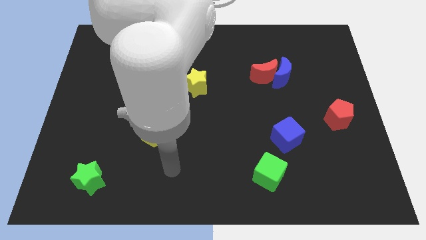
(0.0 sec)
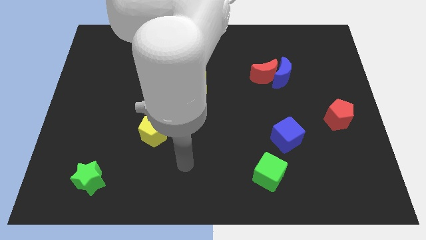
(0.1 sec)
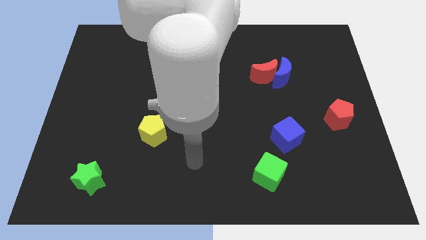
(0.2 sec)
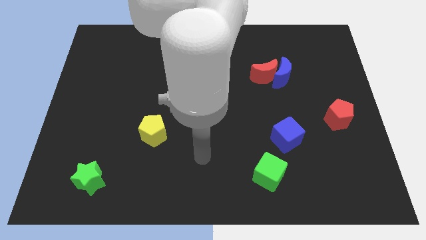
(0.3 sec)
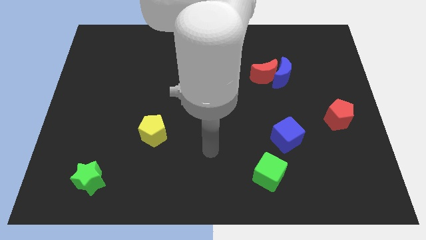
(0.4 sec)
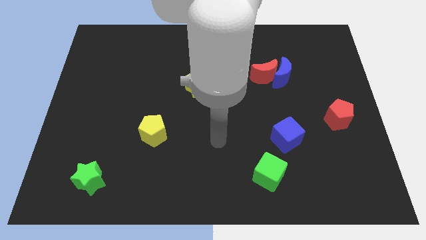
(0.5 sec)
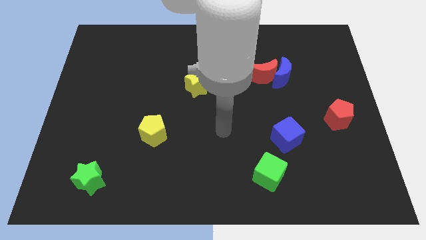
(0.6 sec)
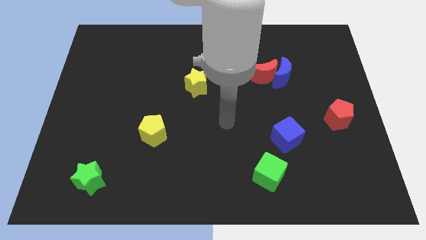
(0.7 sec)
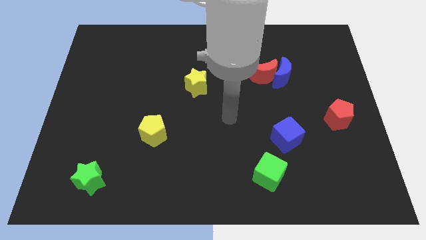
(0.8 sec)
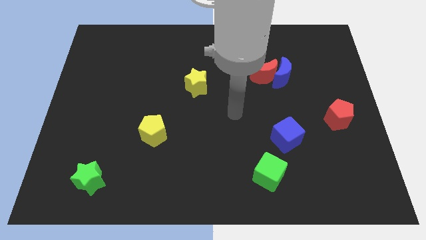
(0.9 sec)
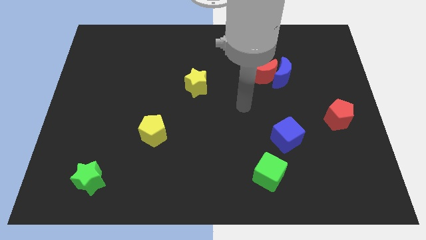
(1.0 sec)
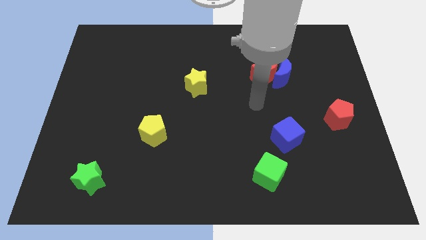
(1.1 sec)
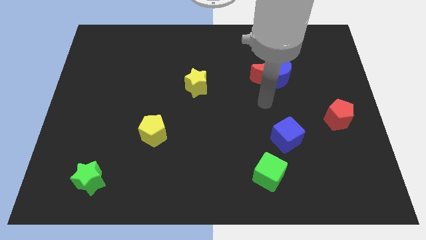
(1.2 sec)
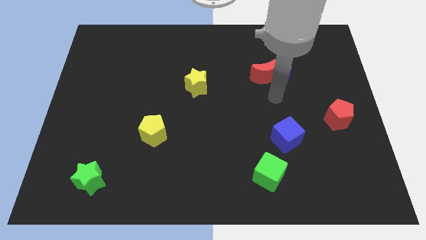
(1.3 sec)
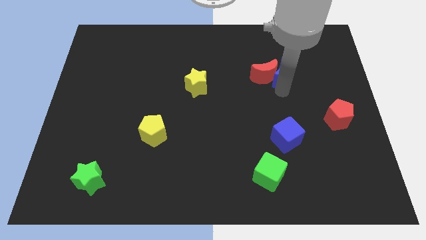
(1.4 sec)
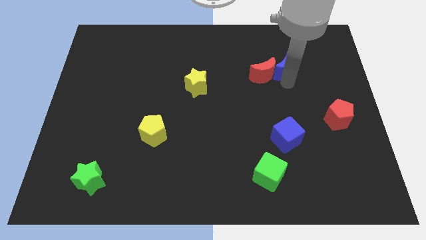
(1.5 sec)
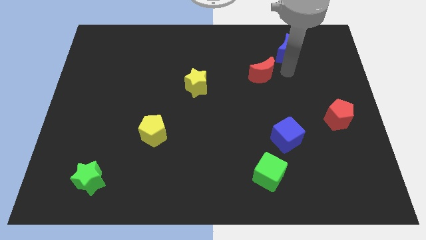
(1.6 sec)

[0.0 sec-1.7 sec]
pull the red moon apart from the blue moon

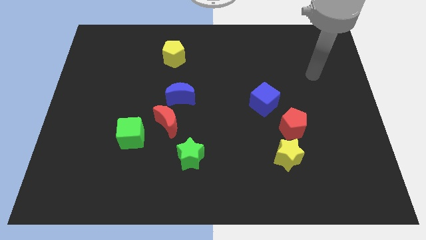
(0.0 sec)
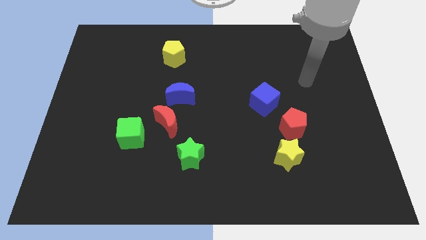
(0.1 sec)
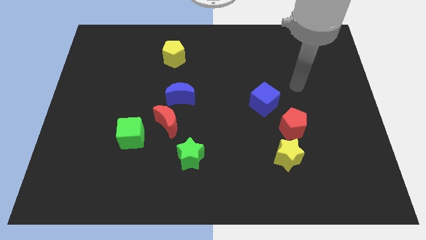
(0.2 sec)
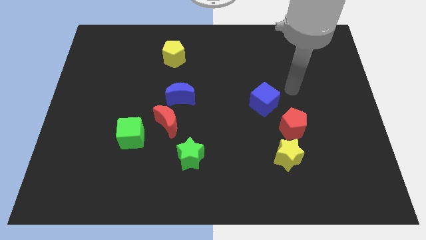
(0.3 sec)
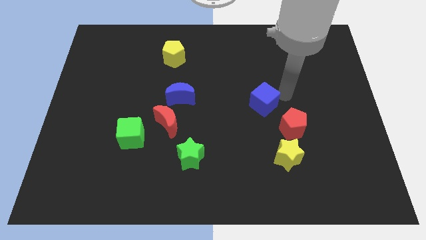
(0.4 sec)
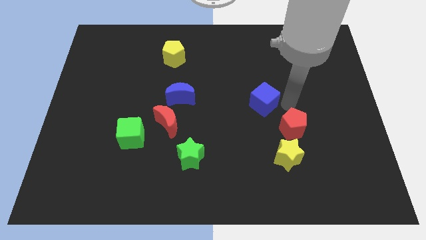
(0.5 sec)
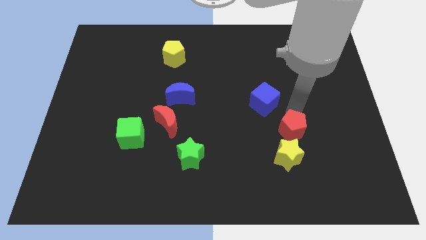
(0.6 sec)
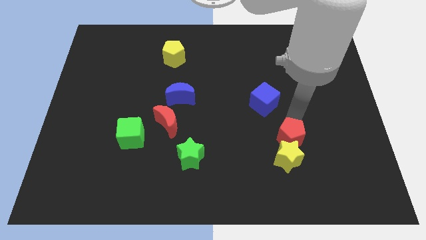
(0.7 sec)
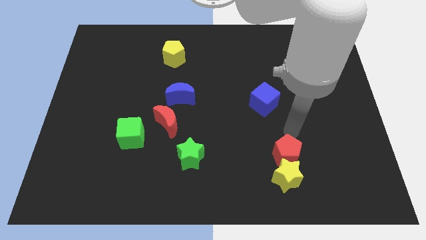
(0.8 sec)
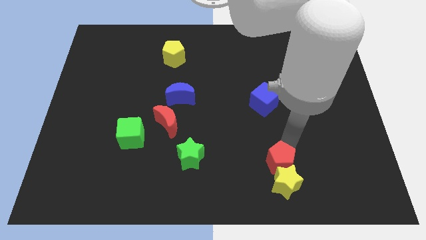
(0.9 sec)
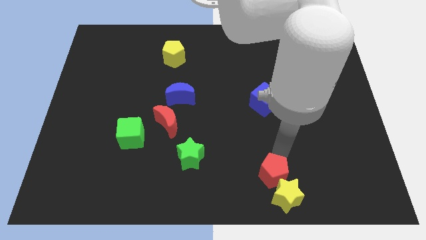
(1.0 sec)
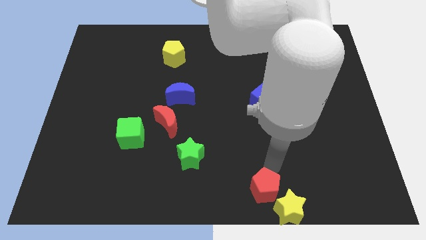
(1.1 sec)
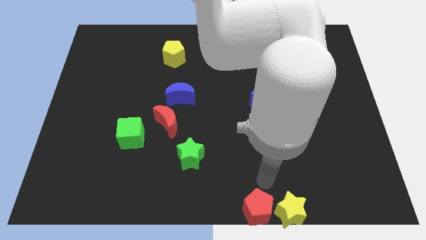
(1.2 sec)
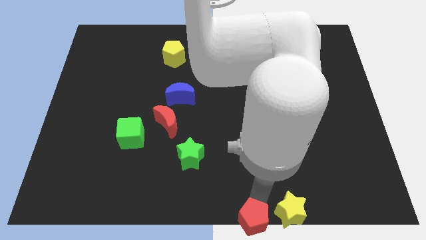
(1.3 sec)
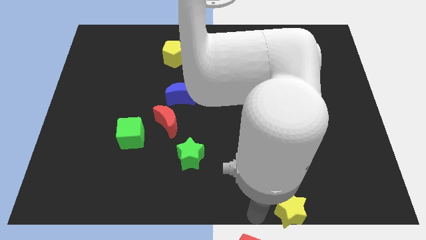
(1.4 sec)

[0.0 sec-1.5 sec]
move the yellow star away from the red pentagon

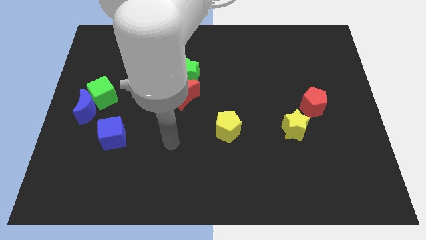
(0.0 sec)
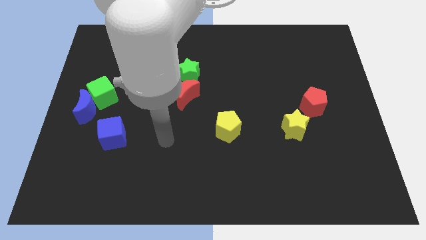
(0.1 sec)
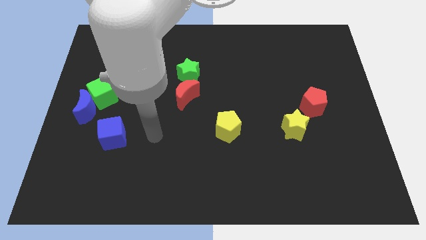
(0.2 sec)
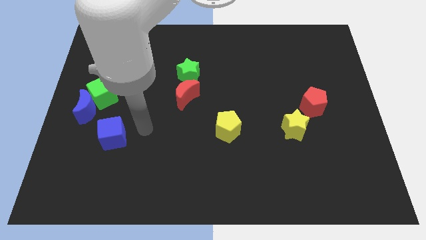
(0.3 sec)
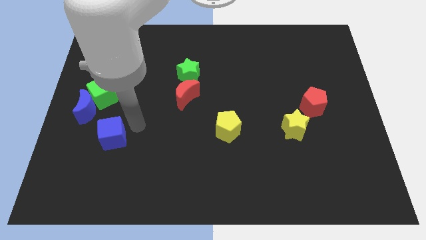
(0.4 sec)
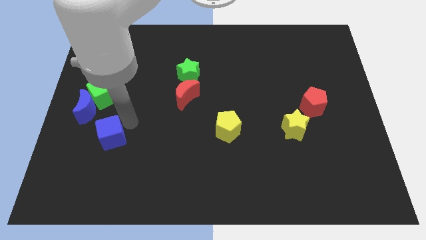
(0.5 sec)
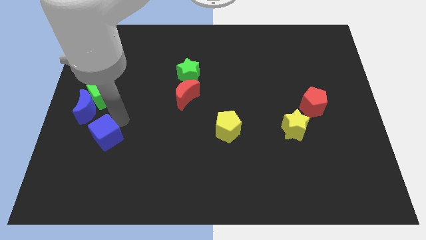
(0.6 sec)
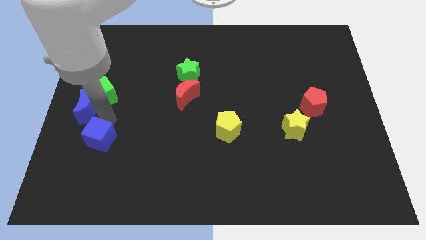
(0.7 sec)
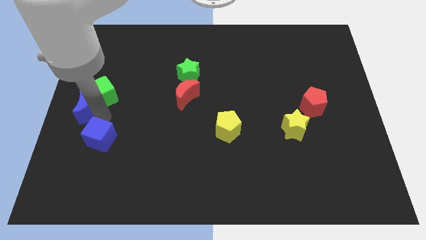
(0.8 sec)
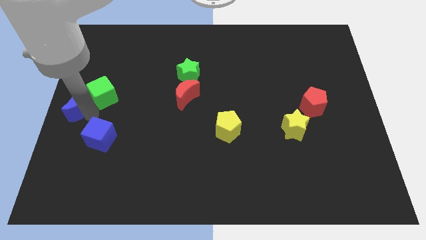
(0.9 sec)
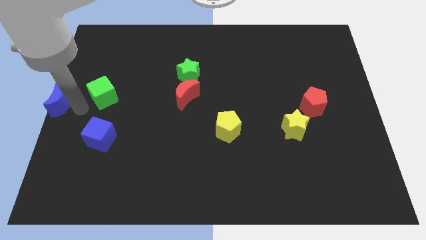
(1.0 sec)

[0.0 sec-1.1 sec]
pull the green cube apart from the blue moon

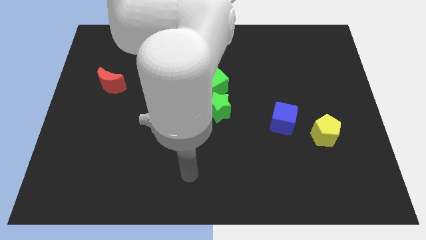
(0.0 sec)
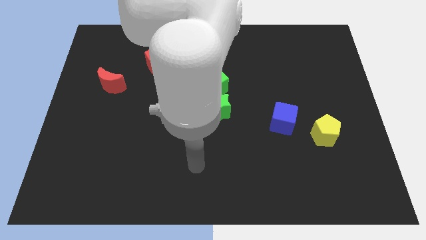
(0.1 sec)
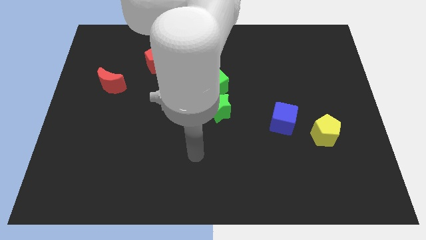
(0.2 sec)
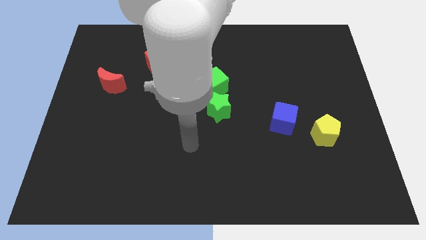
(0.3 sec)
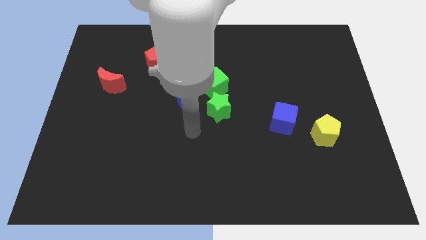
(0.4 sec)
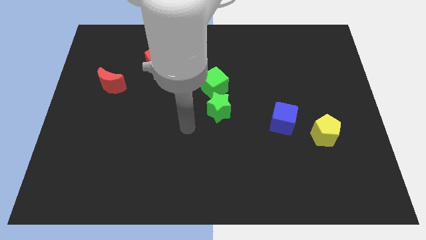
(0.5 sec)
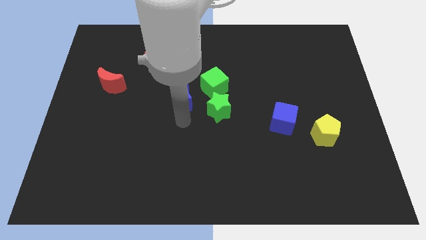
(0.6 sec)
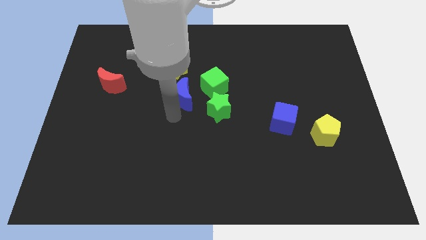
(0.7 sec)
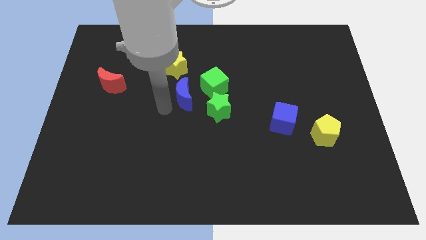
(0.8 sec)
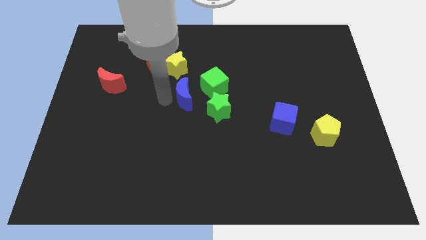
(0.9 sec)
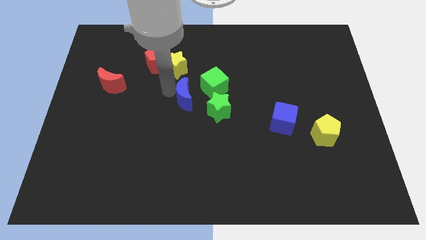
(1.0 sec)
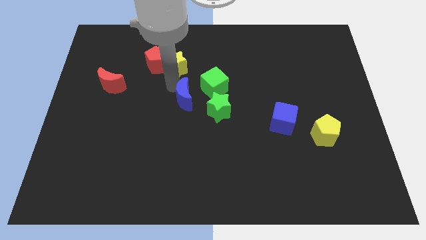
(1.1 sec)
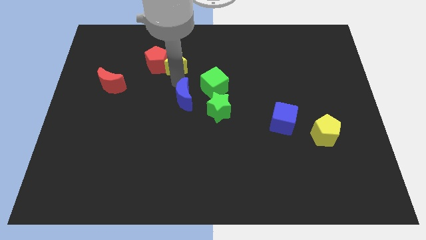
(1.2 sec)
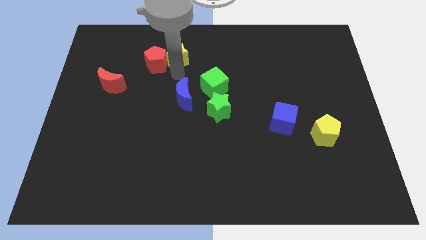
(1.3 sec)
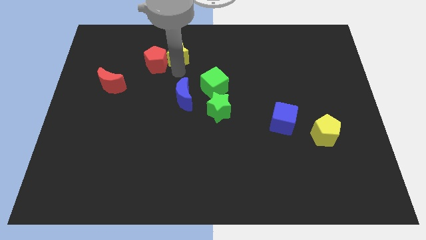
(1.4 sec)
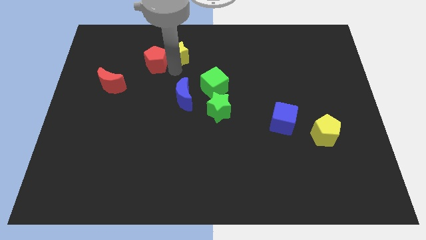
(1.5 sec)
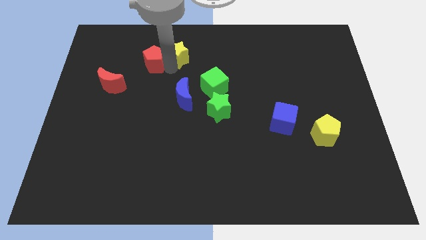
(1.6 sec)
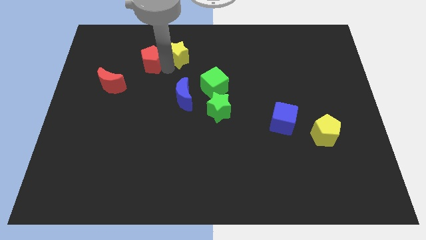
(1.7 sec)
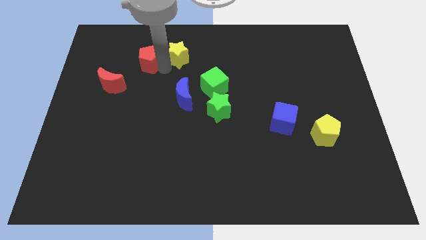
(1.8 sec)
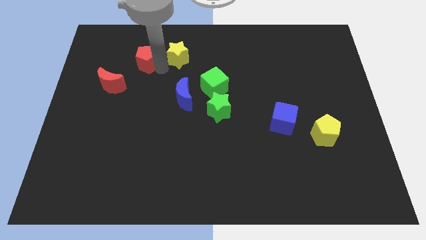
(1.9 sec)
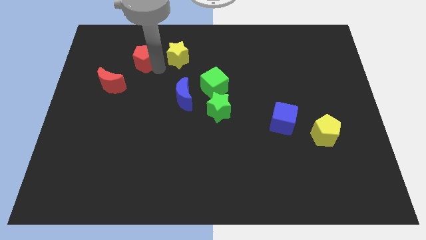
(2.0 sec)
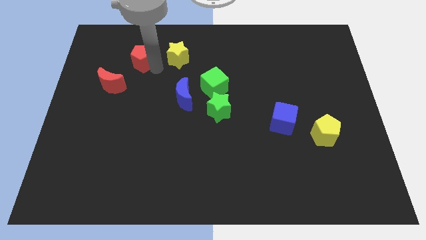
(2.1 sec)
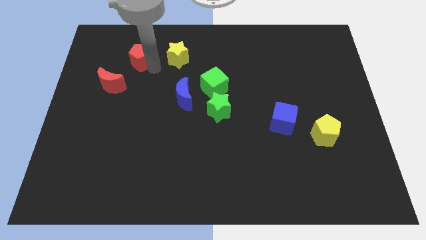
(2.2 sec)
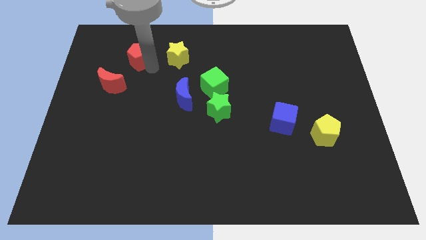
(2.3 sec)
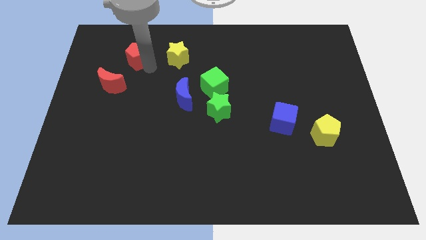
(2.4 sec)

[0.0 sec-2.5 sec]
separate the red pentagon from the yellow star

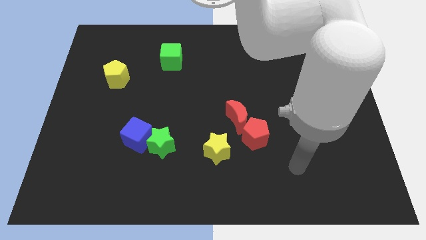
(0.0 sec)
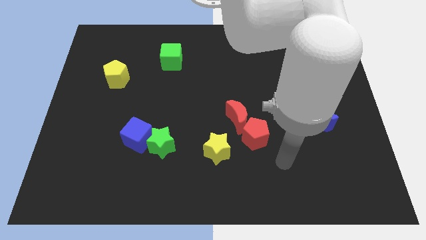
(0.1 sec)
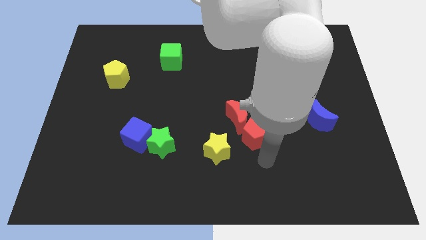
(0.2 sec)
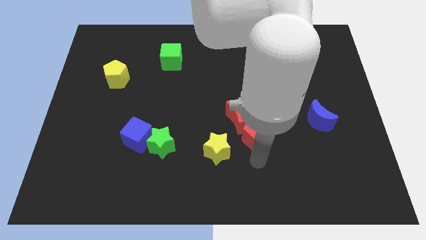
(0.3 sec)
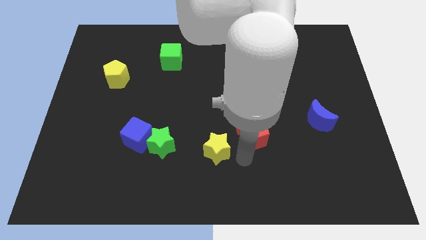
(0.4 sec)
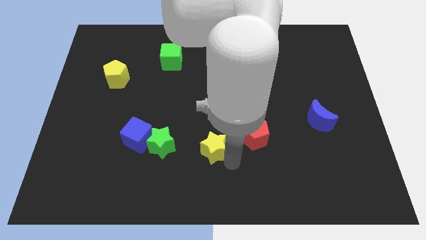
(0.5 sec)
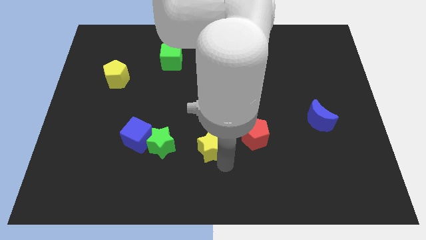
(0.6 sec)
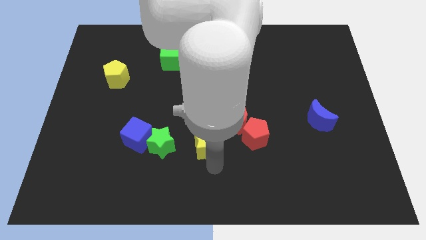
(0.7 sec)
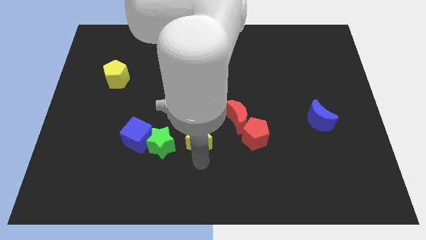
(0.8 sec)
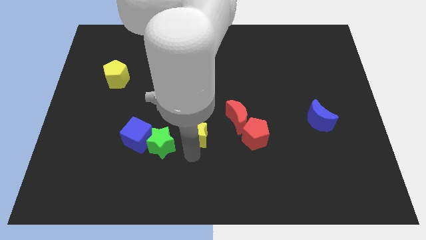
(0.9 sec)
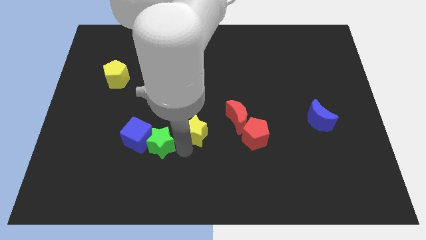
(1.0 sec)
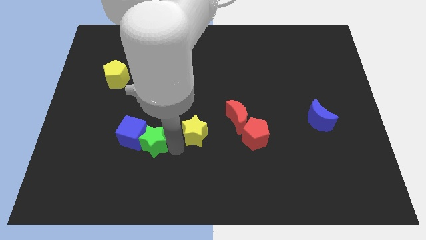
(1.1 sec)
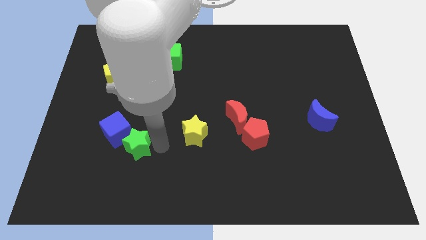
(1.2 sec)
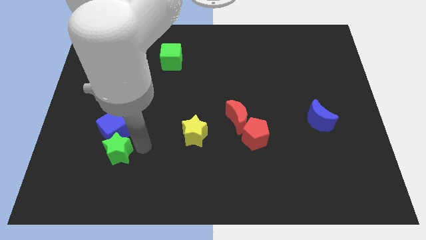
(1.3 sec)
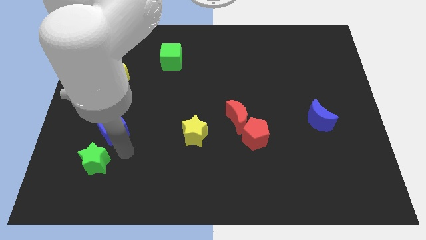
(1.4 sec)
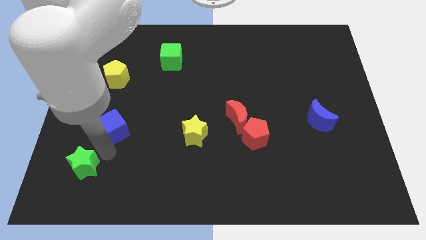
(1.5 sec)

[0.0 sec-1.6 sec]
move the blue cube away from the green star

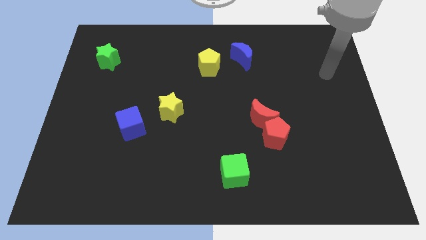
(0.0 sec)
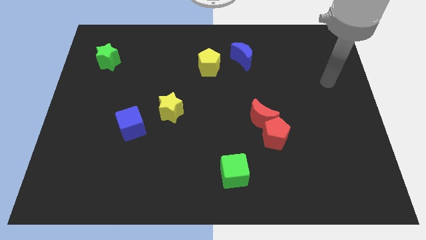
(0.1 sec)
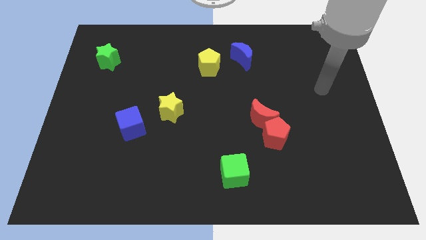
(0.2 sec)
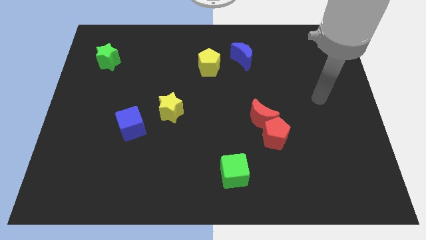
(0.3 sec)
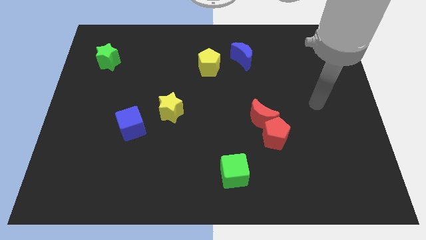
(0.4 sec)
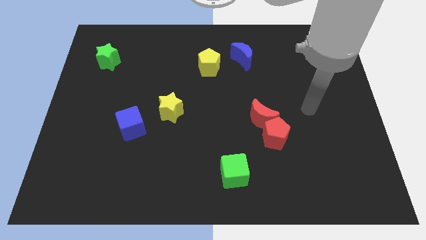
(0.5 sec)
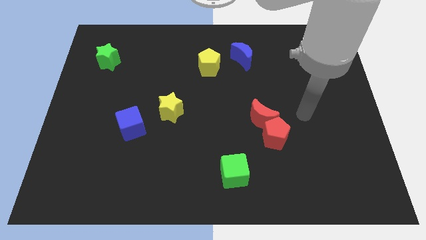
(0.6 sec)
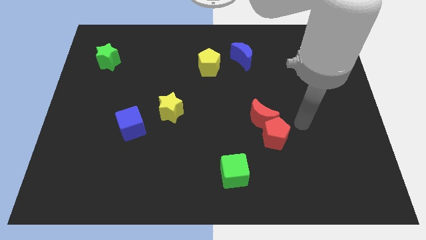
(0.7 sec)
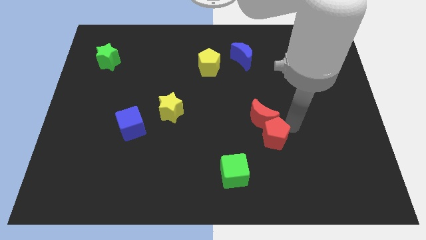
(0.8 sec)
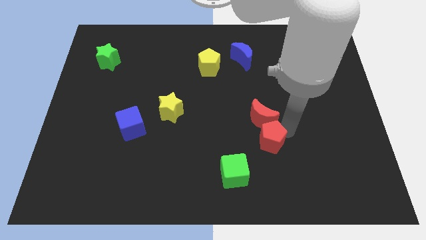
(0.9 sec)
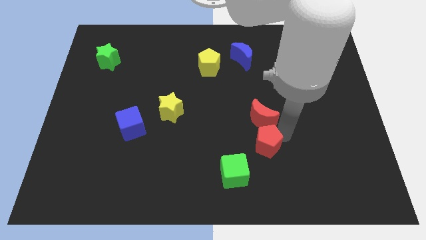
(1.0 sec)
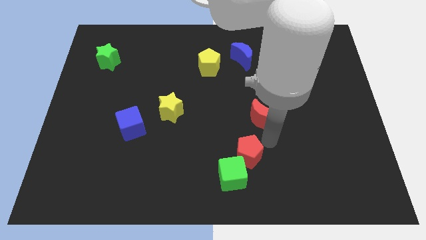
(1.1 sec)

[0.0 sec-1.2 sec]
separate the red moon from the red pentagon
